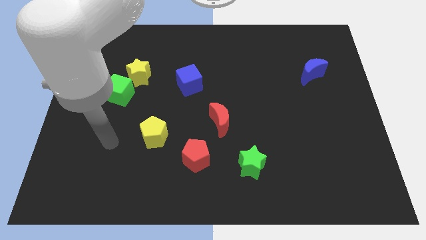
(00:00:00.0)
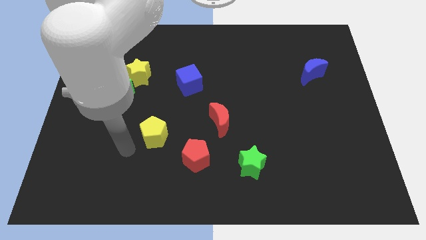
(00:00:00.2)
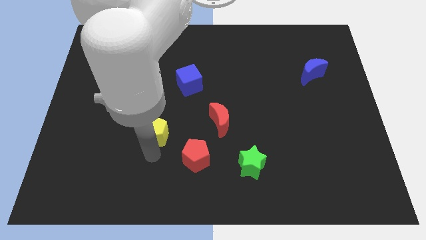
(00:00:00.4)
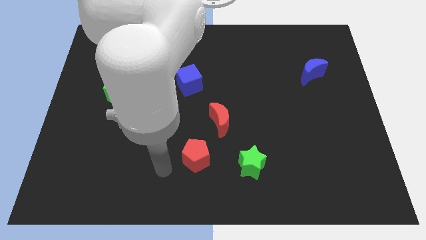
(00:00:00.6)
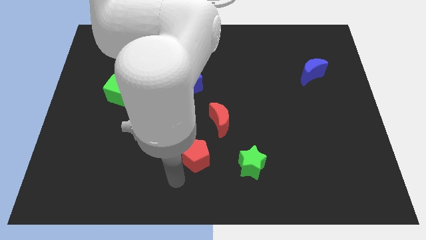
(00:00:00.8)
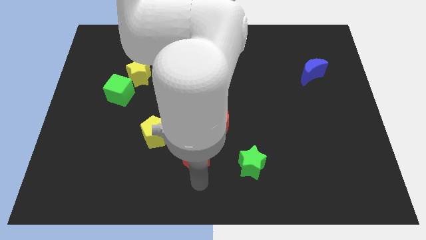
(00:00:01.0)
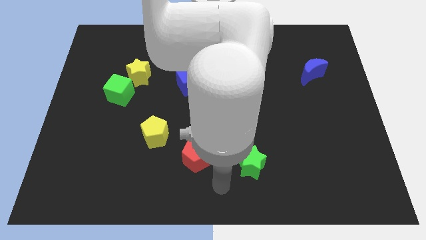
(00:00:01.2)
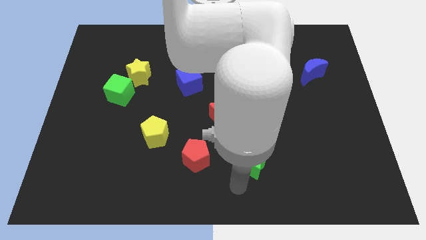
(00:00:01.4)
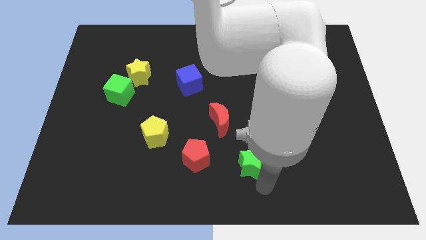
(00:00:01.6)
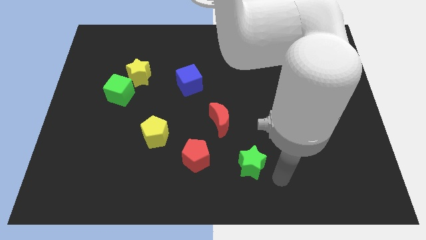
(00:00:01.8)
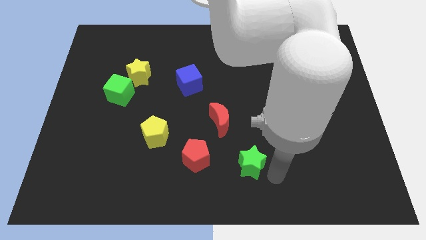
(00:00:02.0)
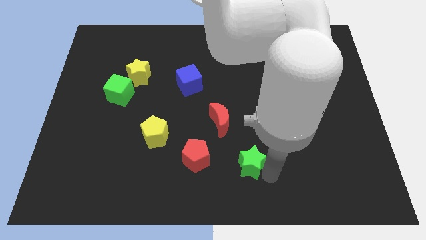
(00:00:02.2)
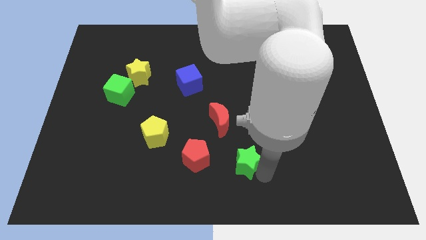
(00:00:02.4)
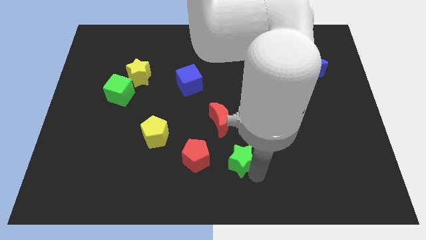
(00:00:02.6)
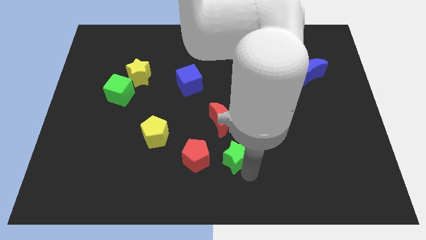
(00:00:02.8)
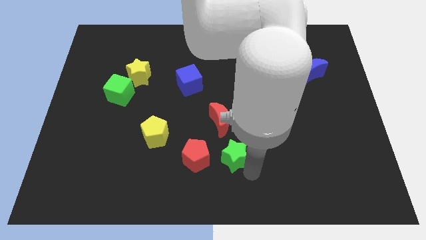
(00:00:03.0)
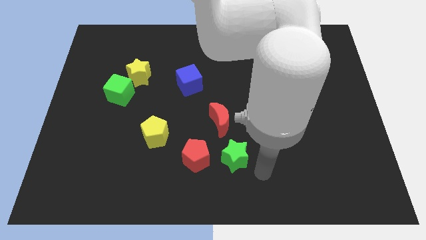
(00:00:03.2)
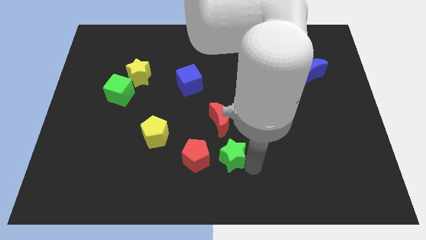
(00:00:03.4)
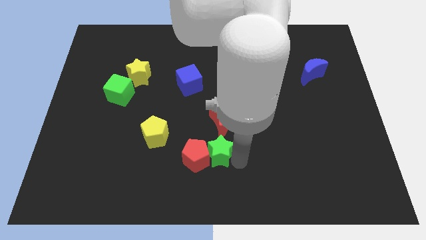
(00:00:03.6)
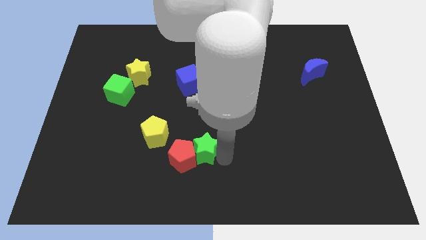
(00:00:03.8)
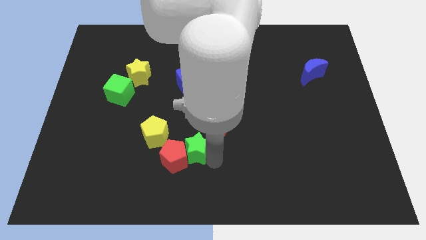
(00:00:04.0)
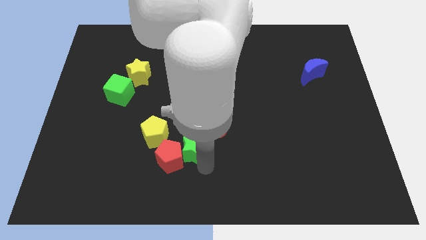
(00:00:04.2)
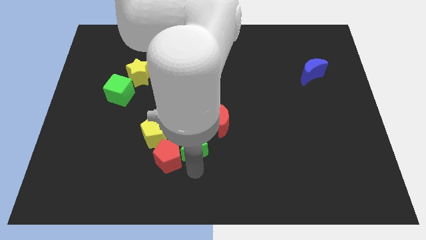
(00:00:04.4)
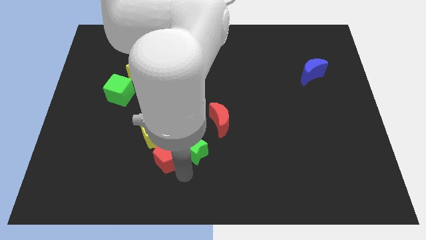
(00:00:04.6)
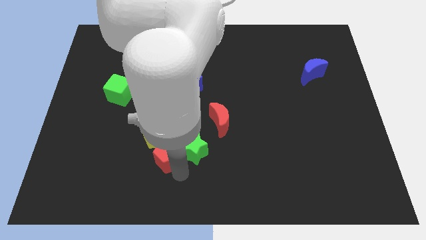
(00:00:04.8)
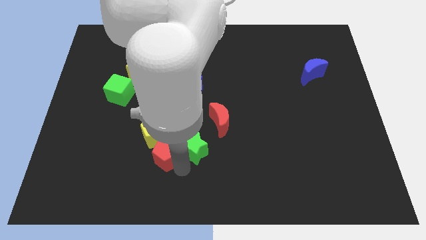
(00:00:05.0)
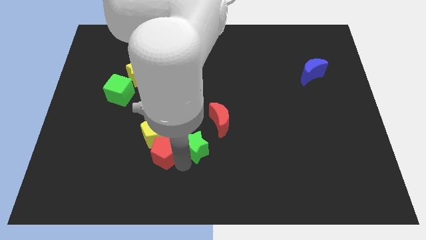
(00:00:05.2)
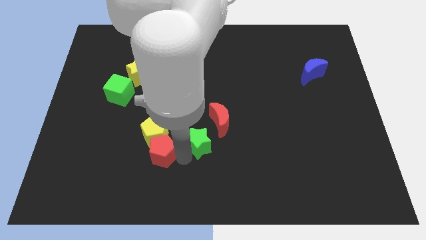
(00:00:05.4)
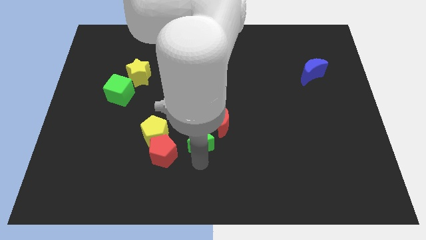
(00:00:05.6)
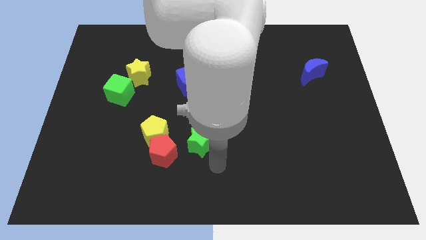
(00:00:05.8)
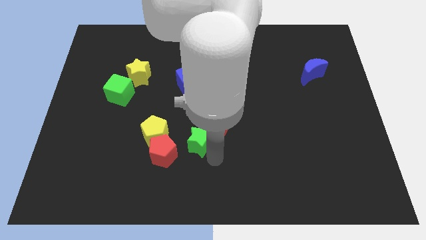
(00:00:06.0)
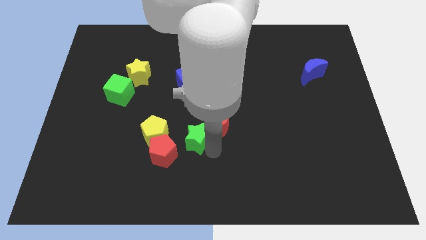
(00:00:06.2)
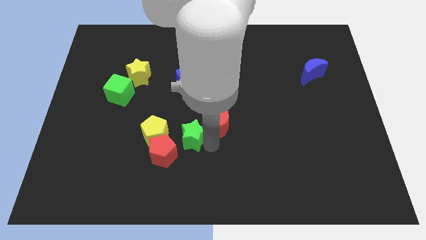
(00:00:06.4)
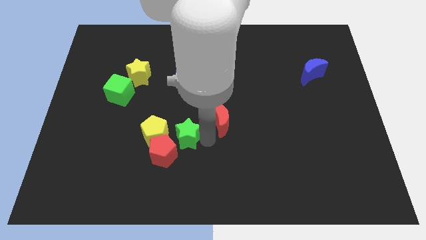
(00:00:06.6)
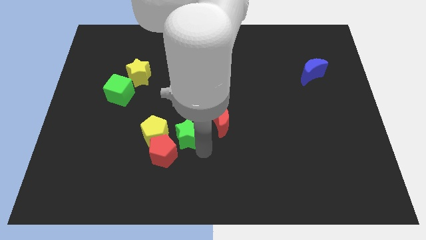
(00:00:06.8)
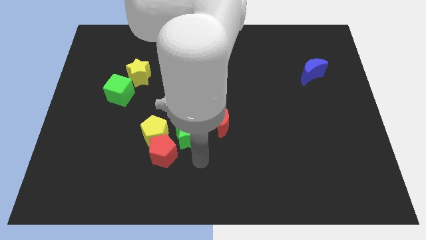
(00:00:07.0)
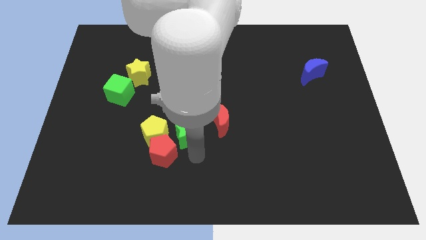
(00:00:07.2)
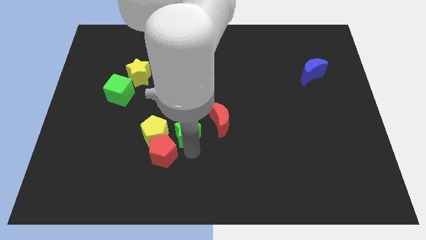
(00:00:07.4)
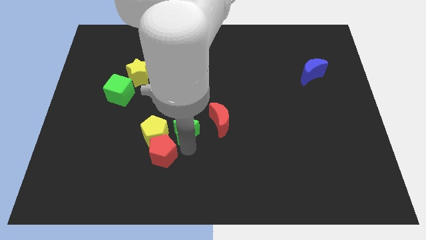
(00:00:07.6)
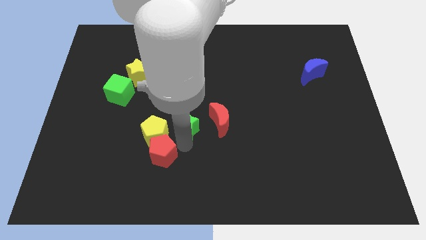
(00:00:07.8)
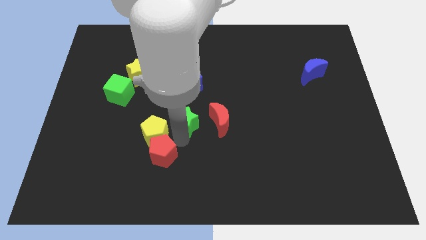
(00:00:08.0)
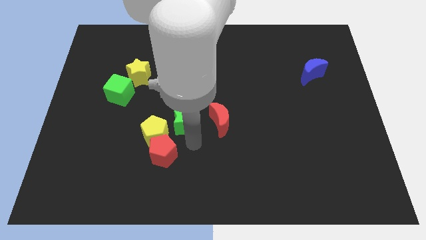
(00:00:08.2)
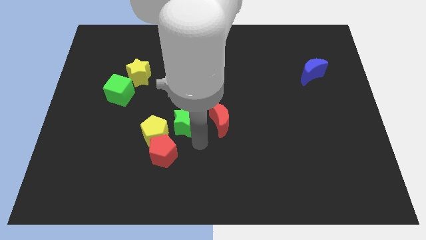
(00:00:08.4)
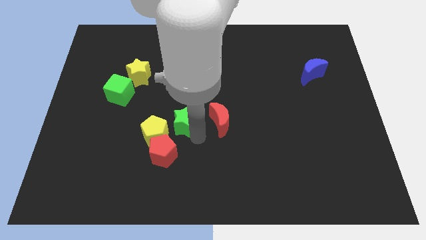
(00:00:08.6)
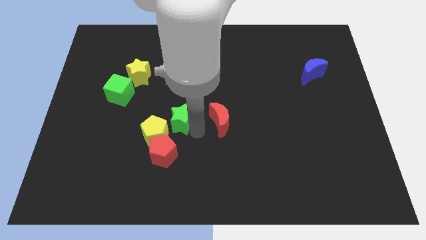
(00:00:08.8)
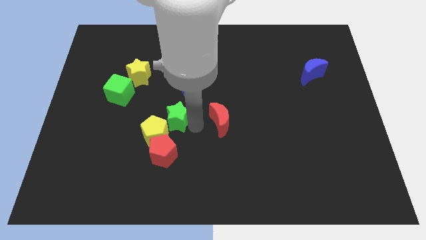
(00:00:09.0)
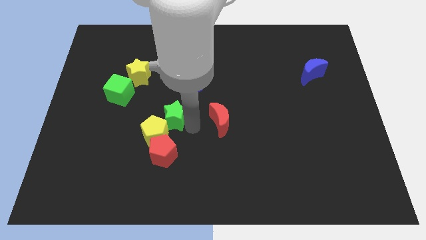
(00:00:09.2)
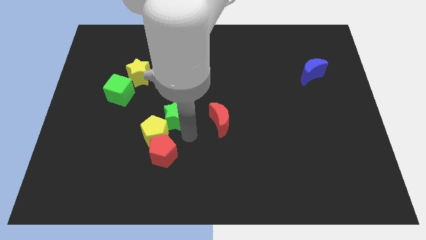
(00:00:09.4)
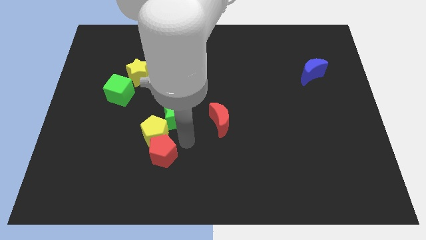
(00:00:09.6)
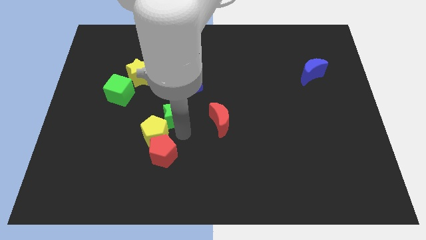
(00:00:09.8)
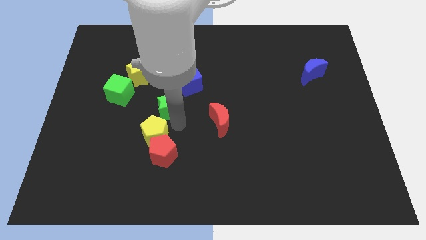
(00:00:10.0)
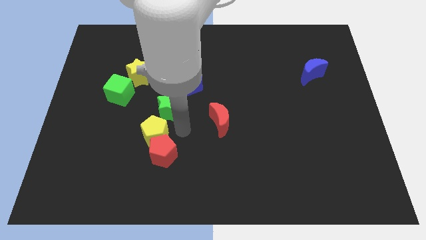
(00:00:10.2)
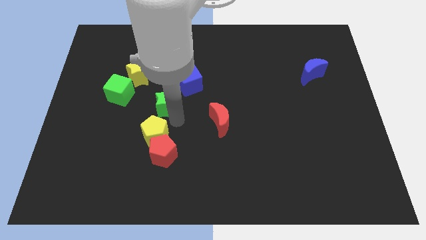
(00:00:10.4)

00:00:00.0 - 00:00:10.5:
move the green star to the bottom right side of the yellow star

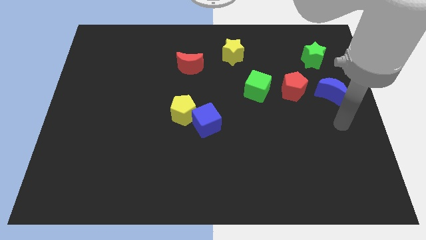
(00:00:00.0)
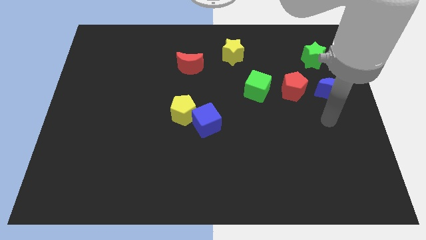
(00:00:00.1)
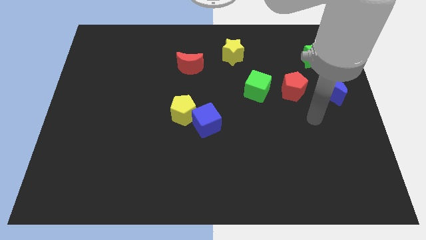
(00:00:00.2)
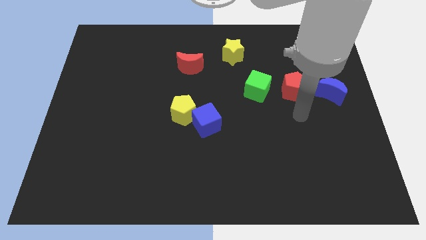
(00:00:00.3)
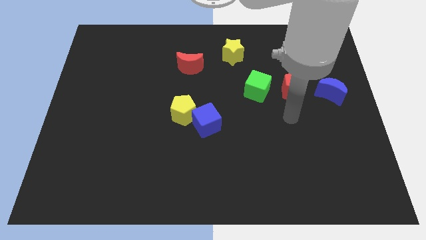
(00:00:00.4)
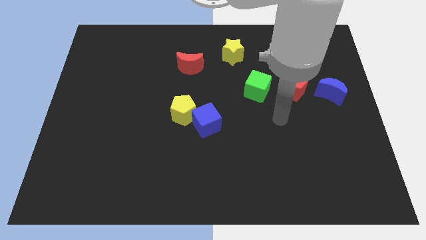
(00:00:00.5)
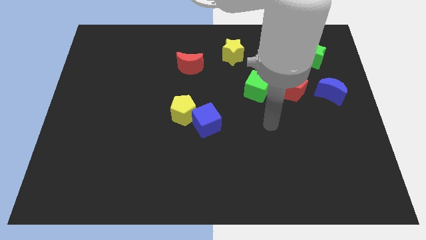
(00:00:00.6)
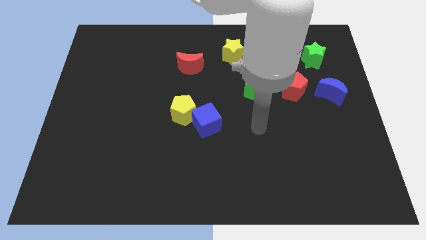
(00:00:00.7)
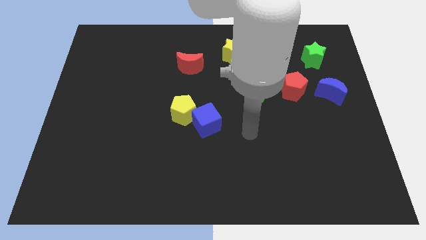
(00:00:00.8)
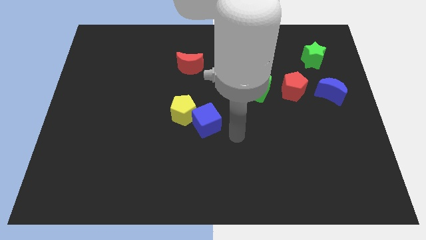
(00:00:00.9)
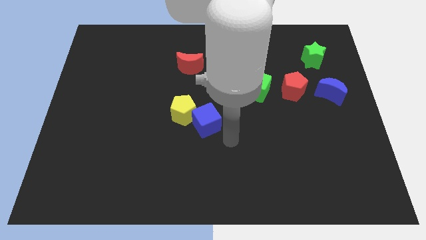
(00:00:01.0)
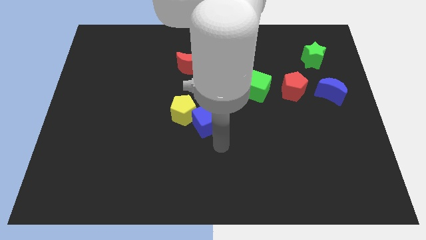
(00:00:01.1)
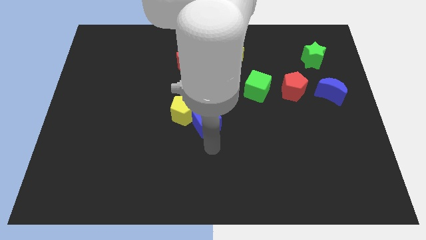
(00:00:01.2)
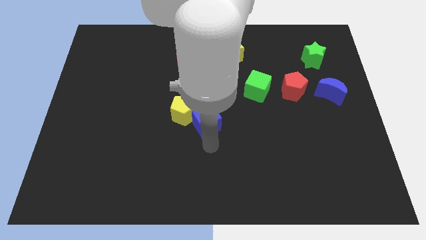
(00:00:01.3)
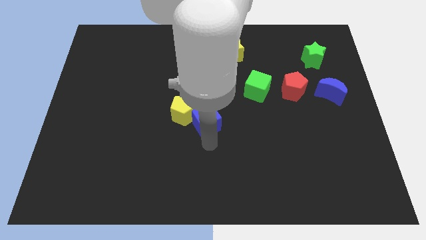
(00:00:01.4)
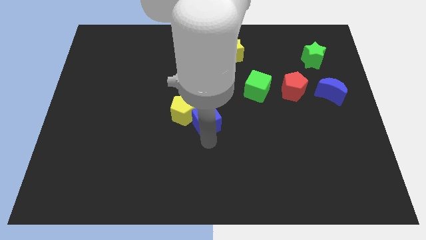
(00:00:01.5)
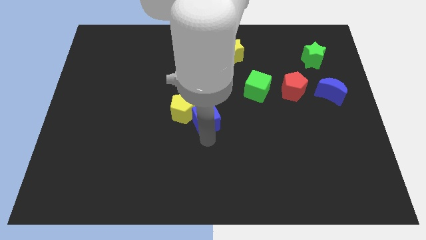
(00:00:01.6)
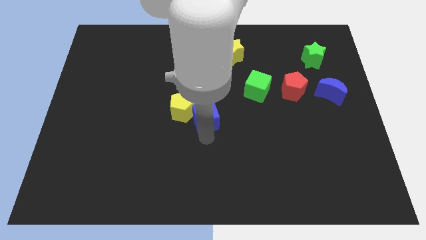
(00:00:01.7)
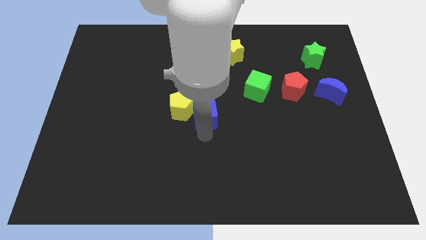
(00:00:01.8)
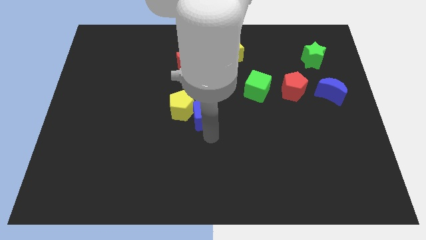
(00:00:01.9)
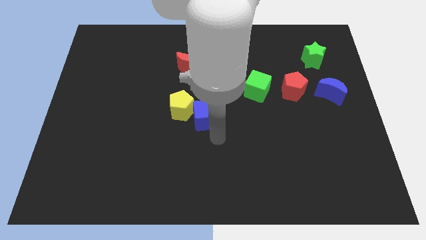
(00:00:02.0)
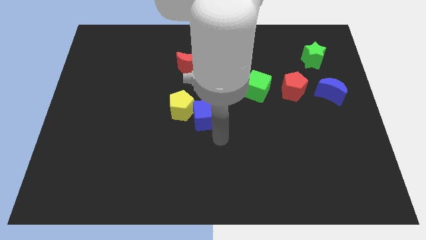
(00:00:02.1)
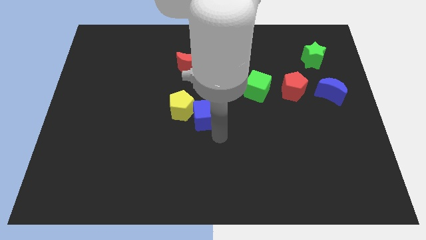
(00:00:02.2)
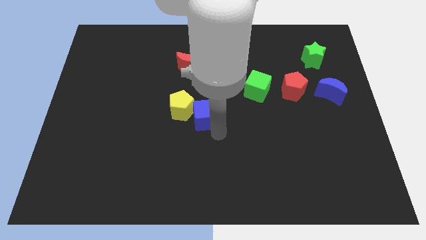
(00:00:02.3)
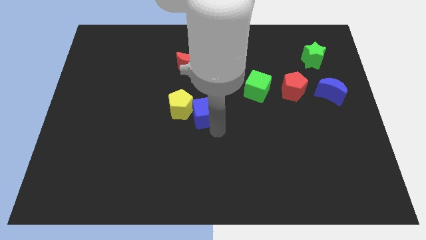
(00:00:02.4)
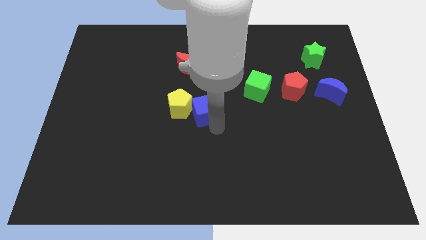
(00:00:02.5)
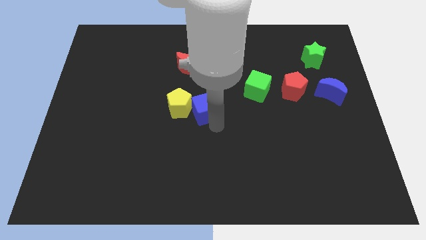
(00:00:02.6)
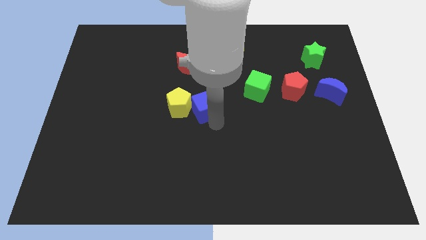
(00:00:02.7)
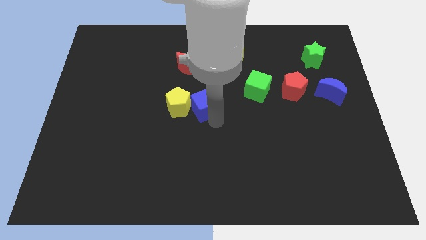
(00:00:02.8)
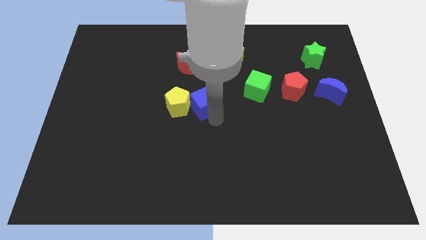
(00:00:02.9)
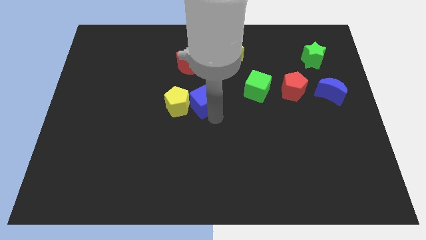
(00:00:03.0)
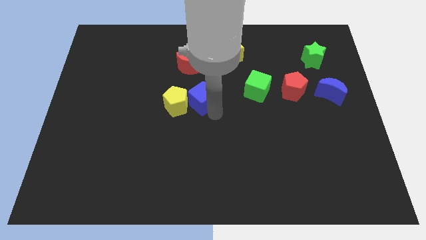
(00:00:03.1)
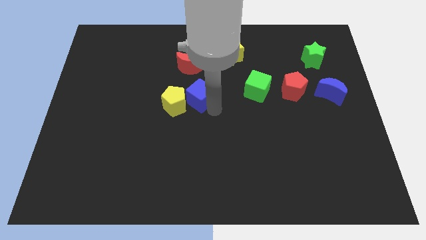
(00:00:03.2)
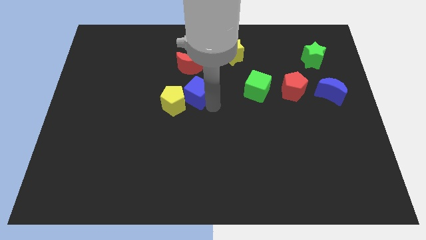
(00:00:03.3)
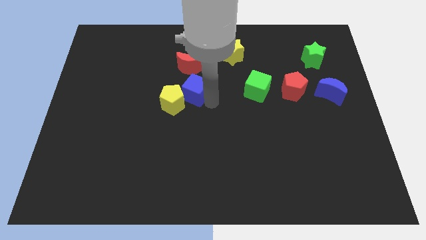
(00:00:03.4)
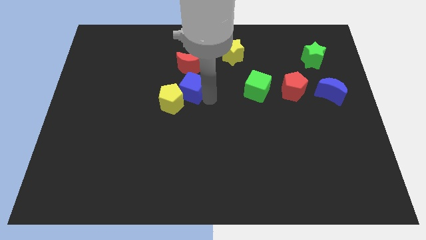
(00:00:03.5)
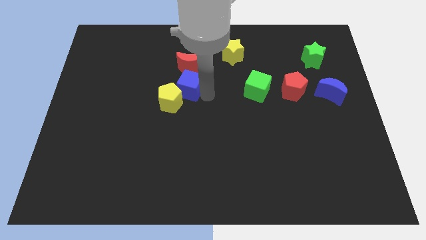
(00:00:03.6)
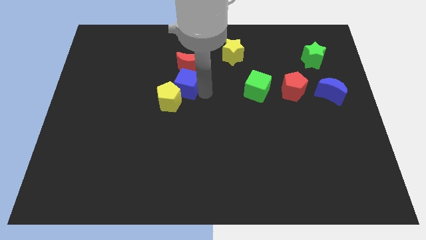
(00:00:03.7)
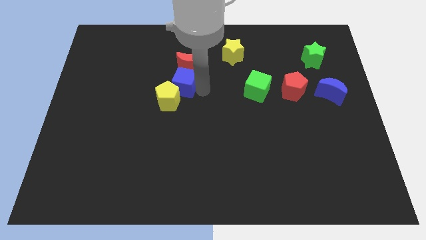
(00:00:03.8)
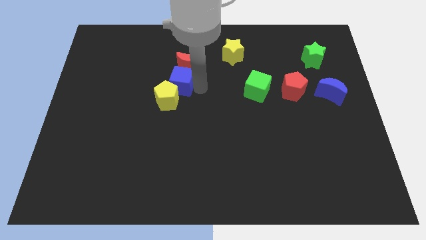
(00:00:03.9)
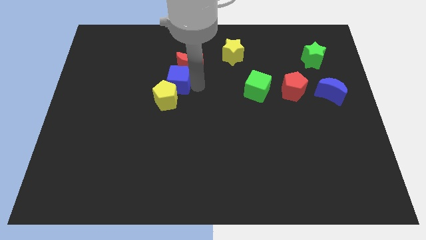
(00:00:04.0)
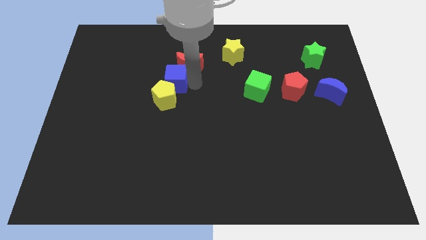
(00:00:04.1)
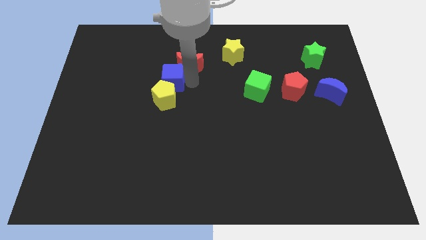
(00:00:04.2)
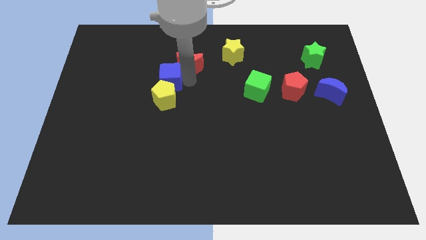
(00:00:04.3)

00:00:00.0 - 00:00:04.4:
put the blue cube diagonally up and to the left of the yellow pentagon
